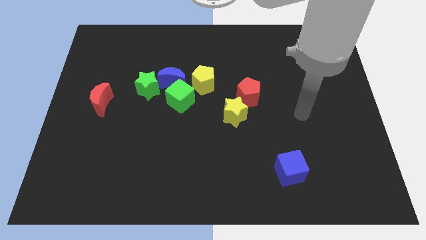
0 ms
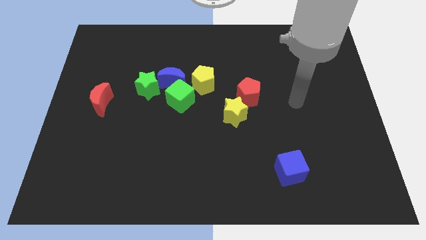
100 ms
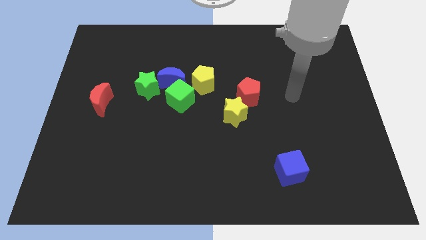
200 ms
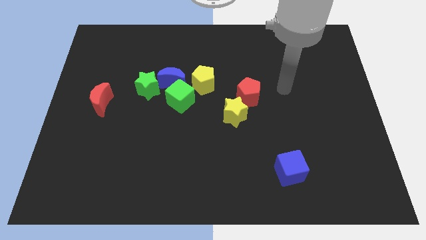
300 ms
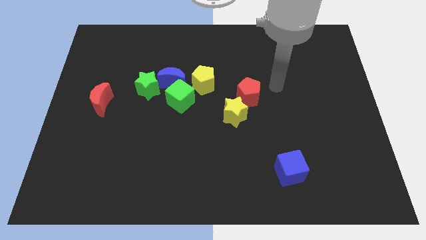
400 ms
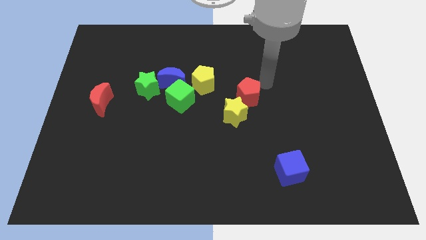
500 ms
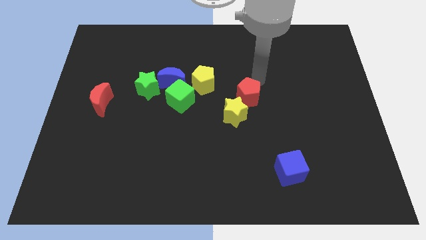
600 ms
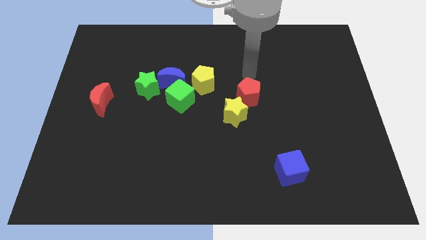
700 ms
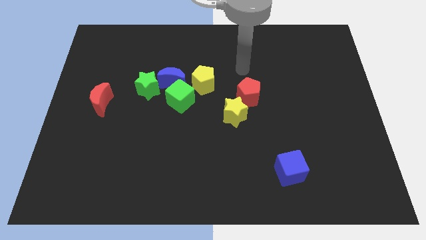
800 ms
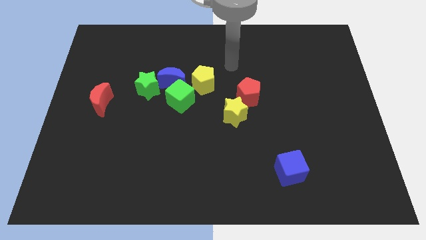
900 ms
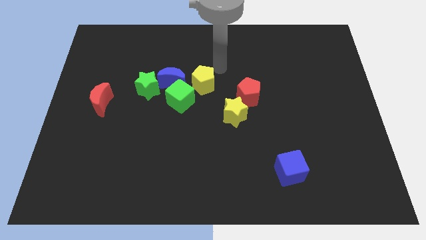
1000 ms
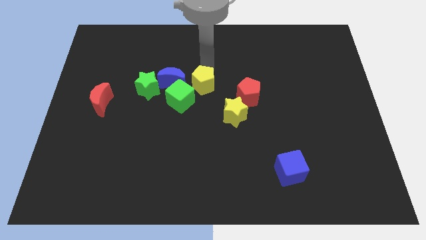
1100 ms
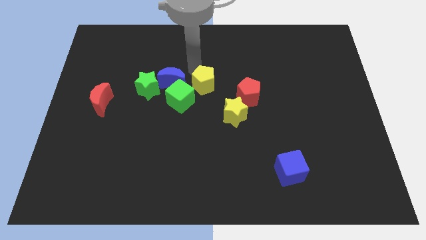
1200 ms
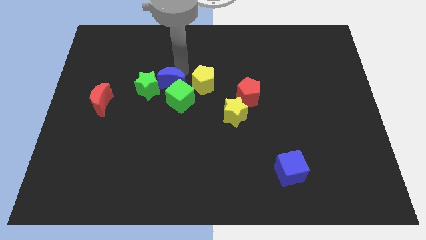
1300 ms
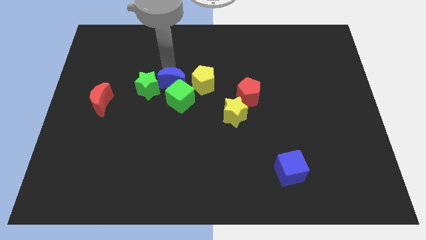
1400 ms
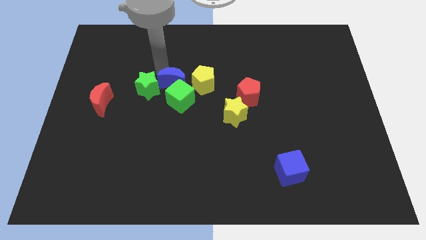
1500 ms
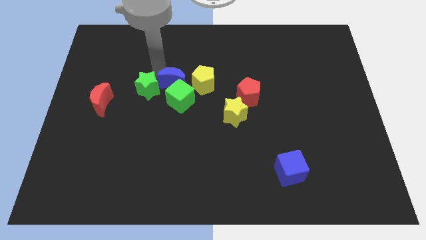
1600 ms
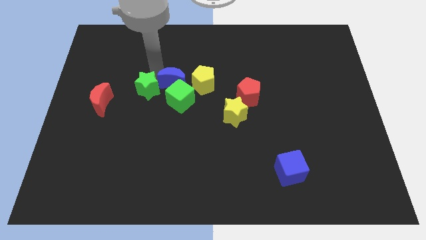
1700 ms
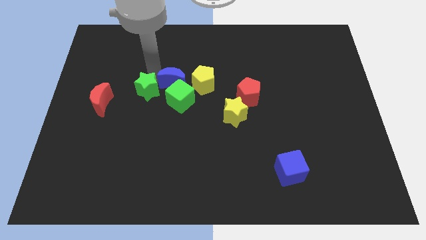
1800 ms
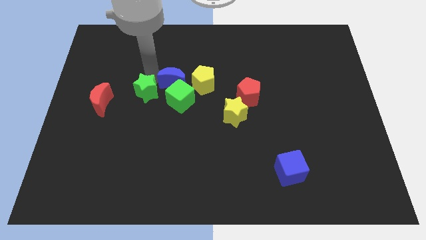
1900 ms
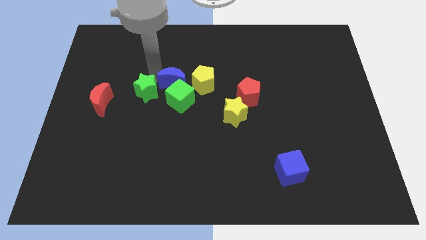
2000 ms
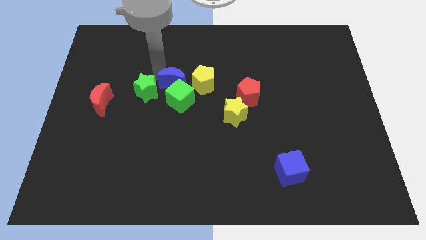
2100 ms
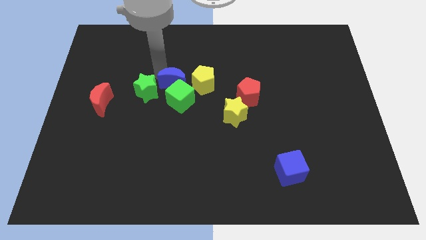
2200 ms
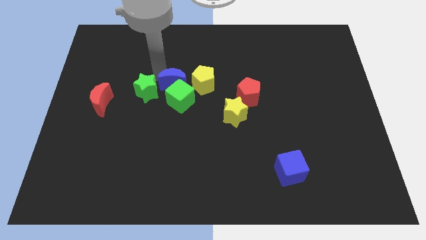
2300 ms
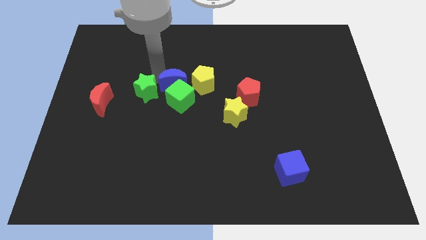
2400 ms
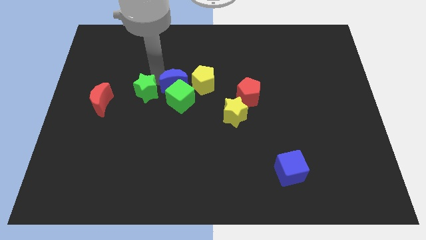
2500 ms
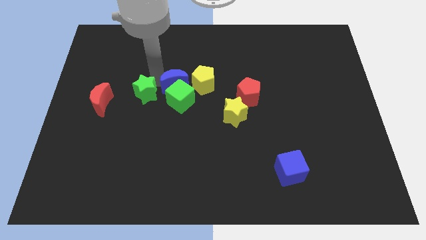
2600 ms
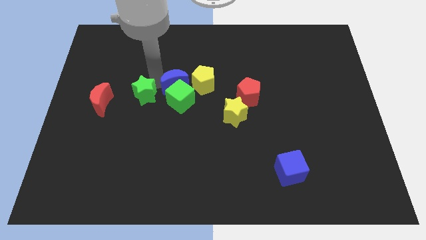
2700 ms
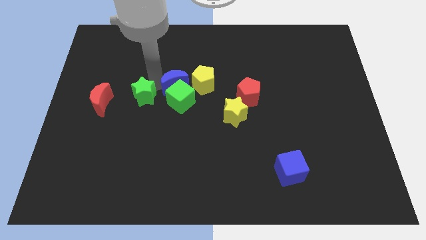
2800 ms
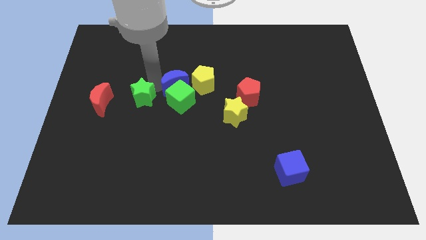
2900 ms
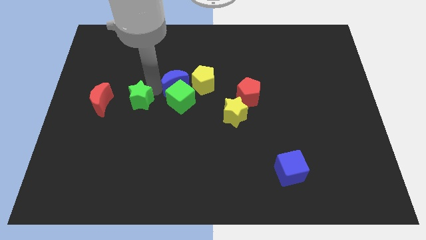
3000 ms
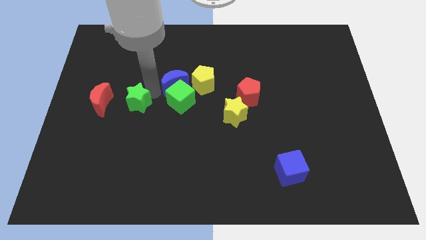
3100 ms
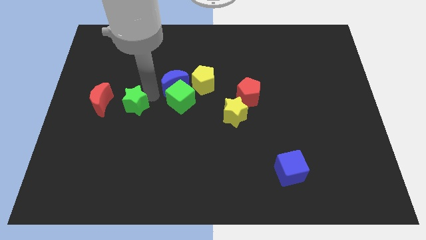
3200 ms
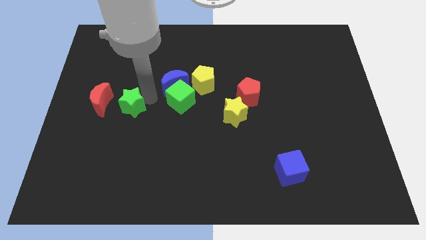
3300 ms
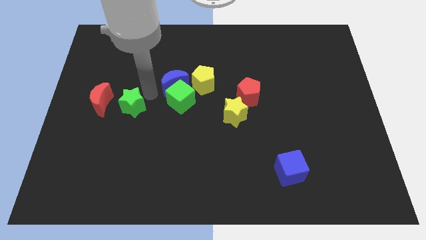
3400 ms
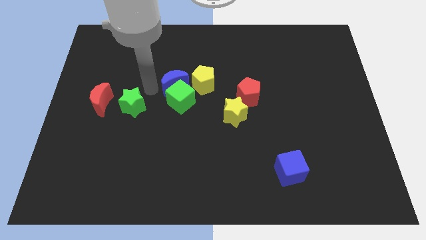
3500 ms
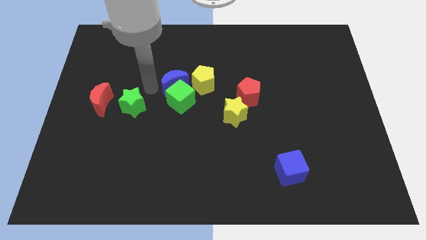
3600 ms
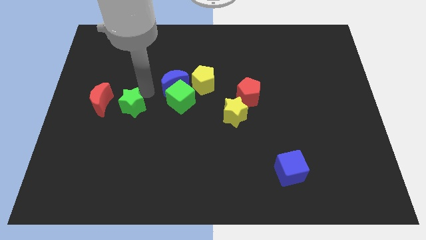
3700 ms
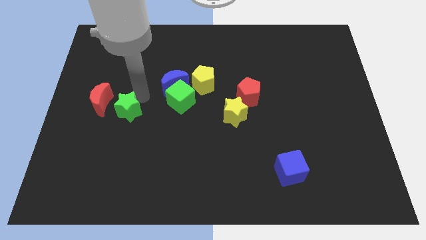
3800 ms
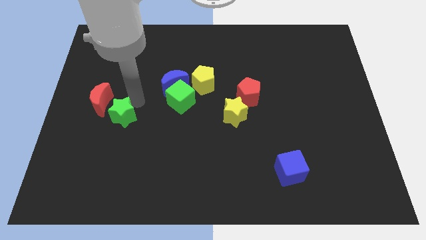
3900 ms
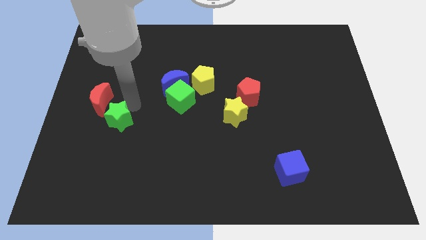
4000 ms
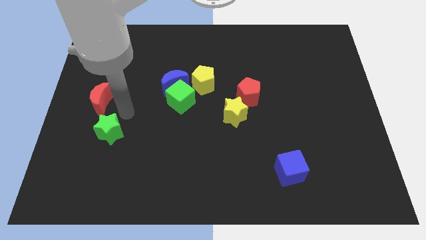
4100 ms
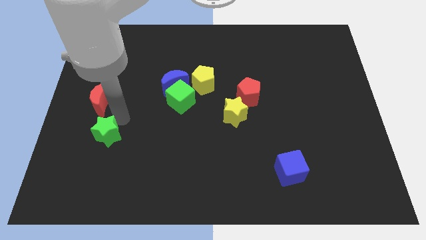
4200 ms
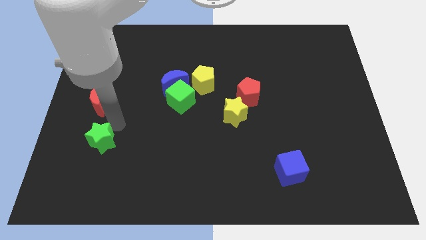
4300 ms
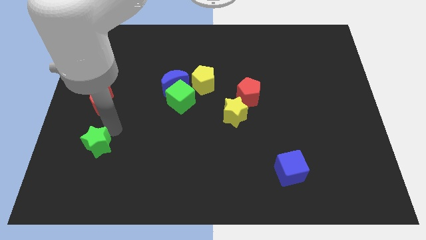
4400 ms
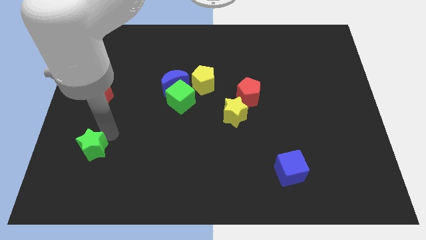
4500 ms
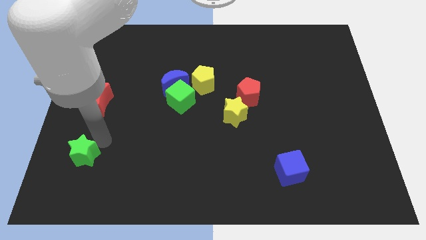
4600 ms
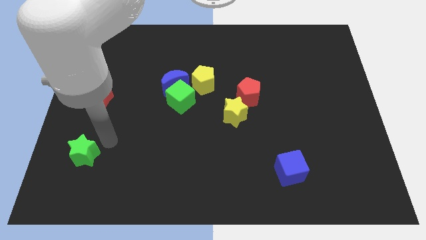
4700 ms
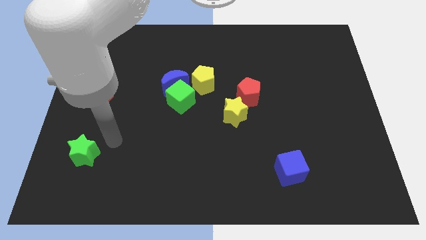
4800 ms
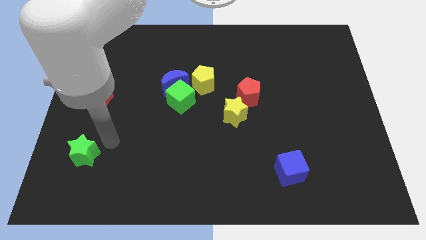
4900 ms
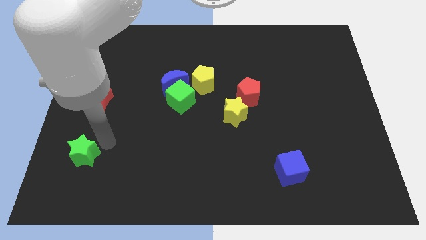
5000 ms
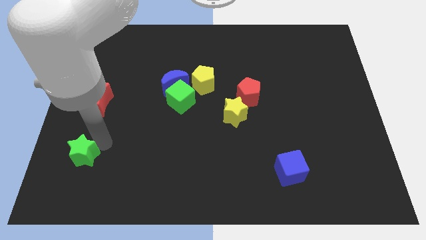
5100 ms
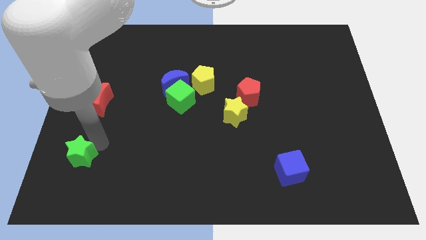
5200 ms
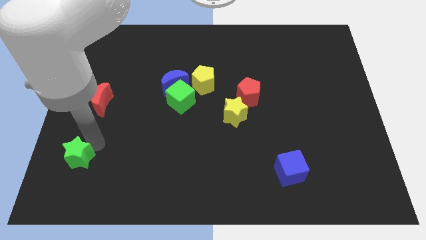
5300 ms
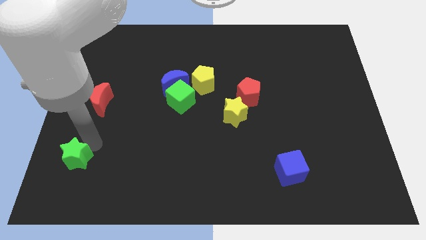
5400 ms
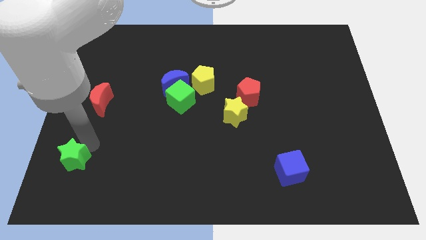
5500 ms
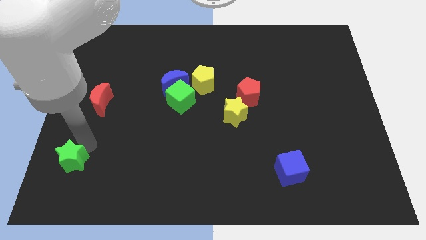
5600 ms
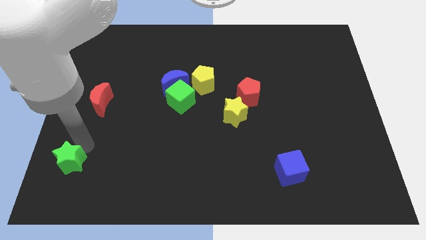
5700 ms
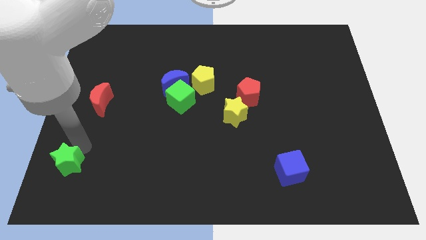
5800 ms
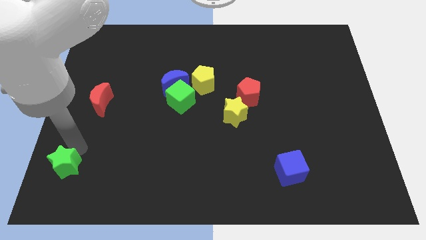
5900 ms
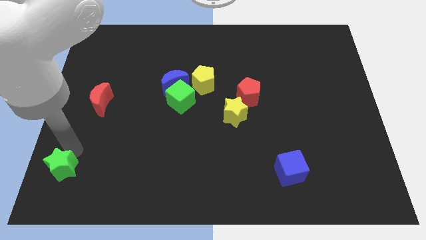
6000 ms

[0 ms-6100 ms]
move the green star to the bottom left of the board

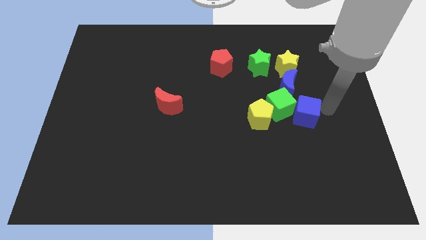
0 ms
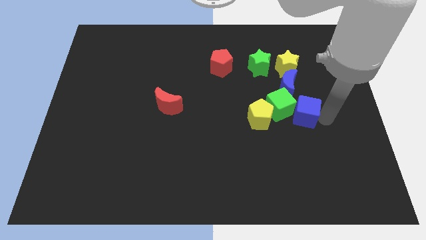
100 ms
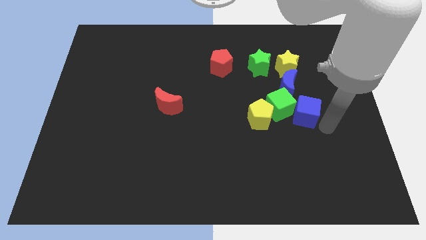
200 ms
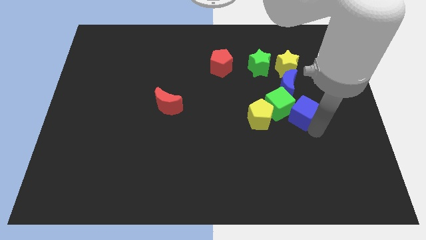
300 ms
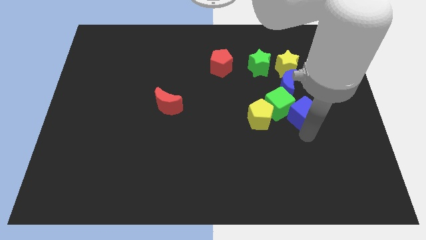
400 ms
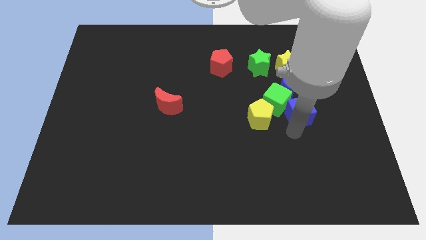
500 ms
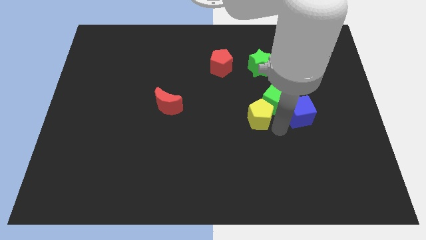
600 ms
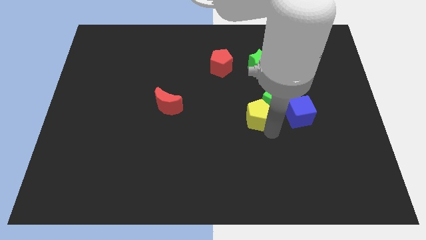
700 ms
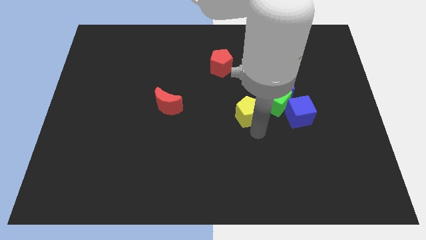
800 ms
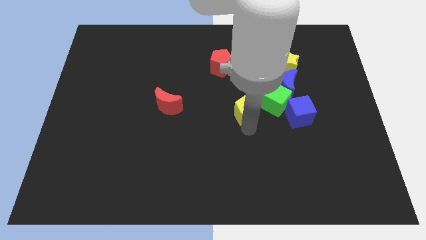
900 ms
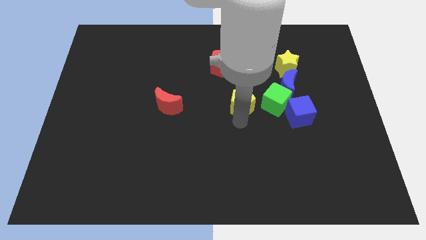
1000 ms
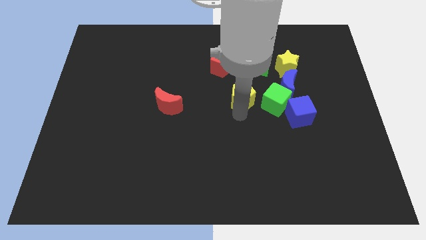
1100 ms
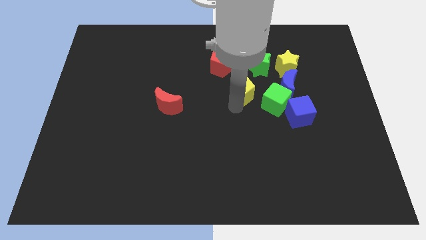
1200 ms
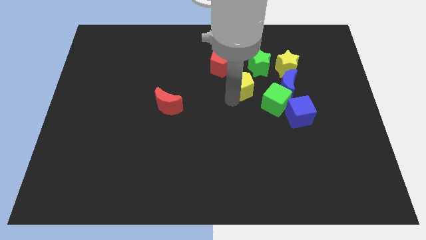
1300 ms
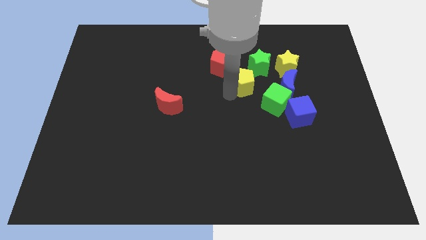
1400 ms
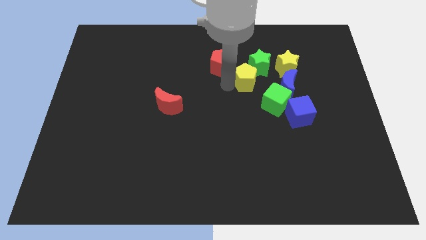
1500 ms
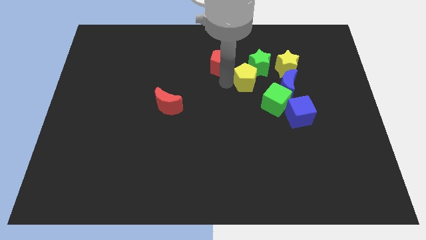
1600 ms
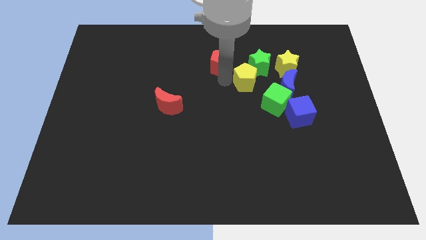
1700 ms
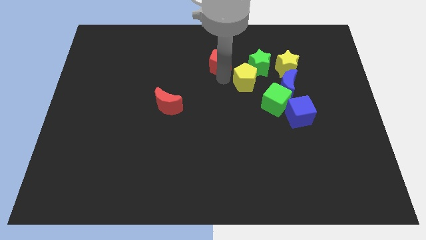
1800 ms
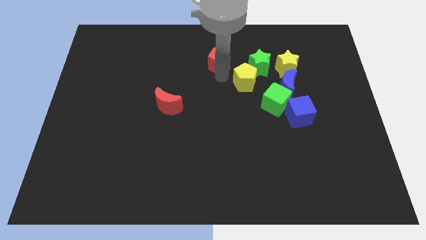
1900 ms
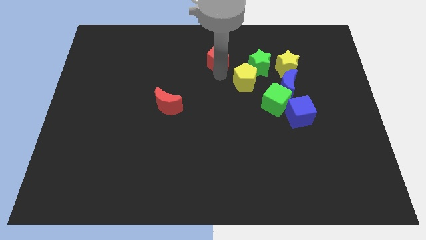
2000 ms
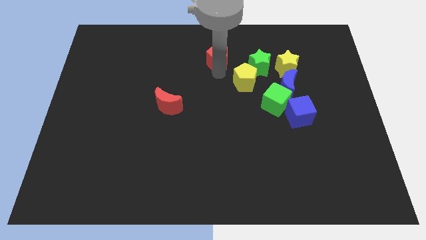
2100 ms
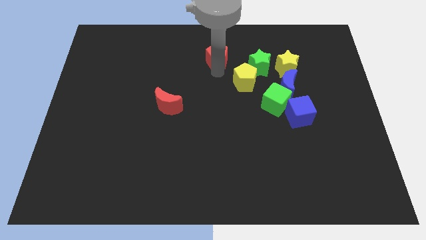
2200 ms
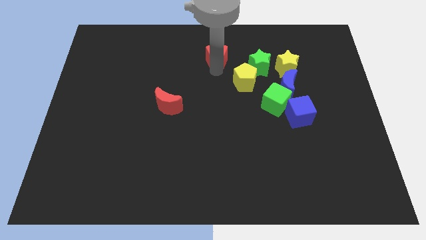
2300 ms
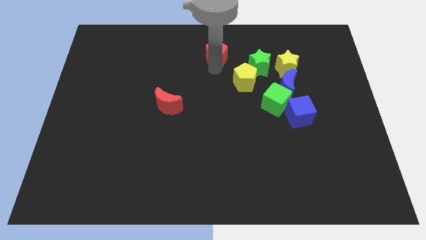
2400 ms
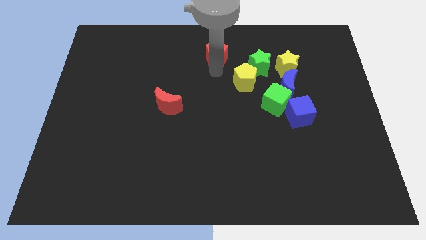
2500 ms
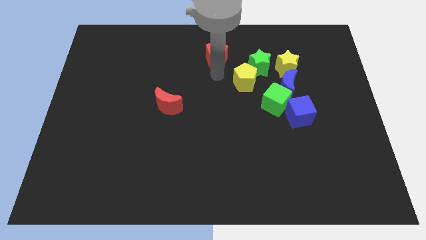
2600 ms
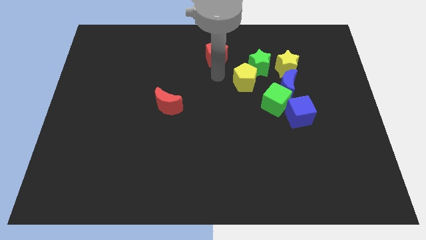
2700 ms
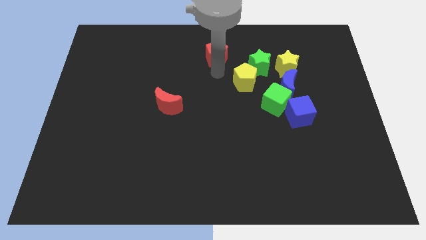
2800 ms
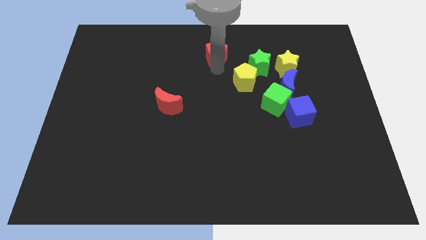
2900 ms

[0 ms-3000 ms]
slide the red pentagon to the top side
